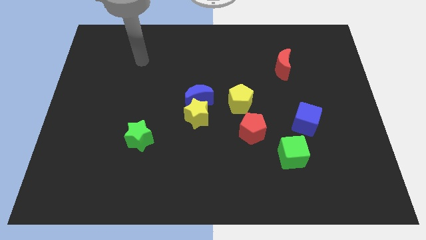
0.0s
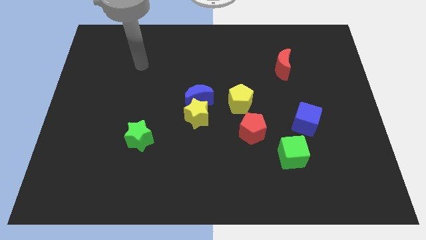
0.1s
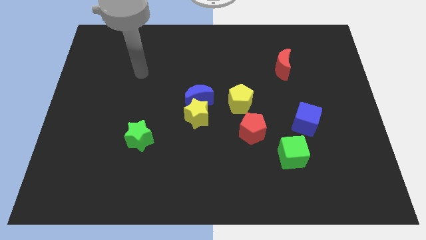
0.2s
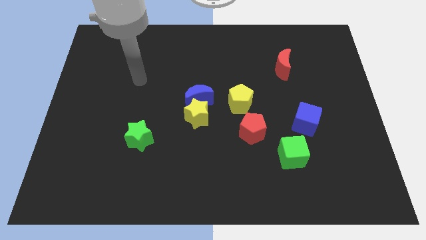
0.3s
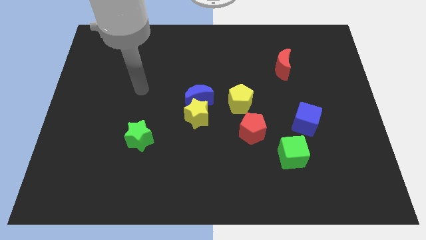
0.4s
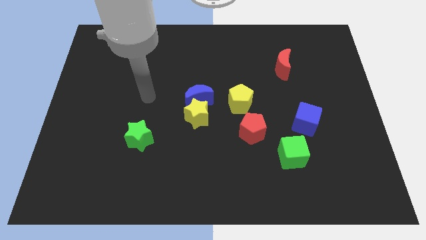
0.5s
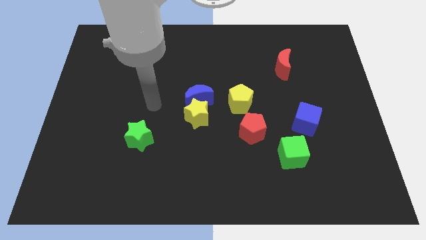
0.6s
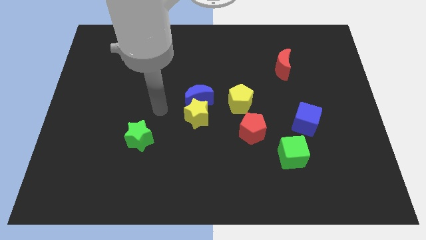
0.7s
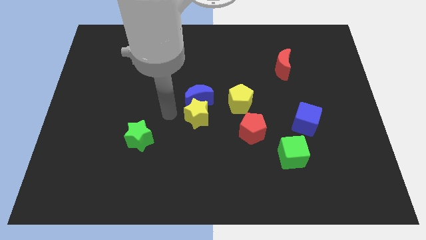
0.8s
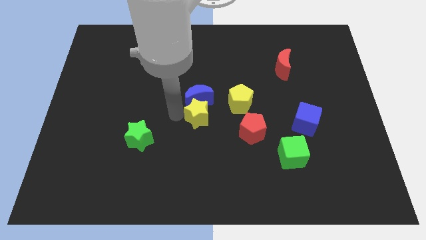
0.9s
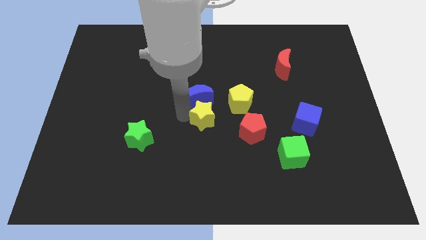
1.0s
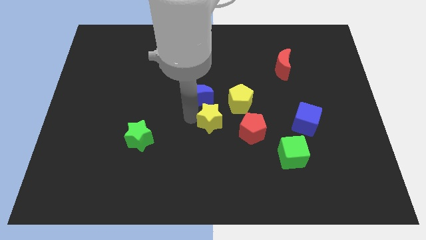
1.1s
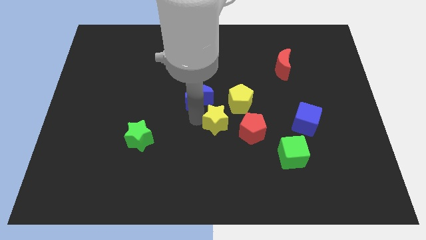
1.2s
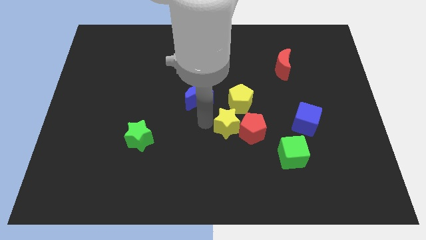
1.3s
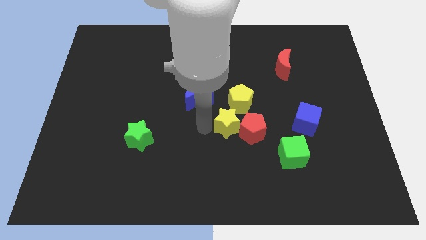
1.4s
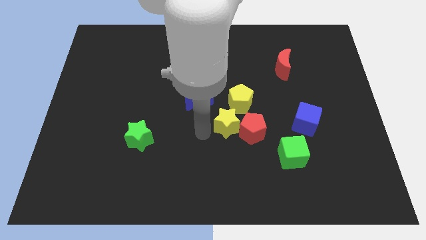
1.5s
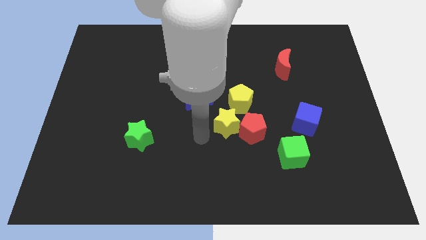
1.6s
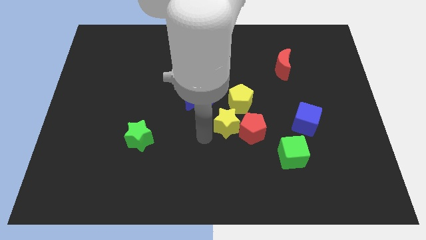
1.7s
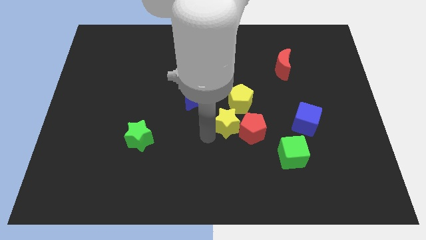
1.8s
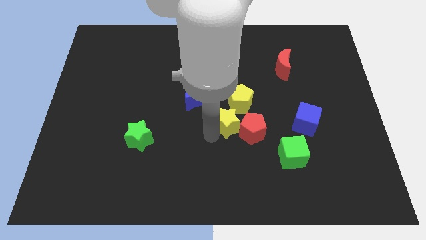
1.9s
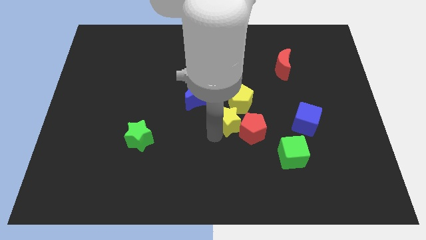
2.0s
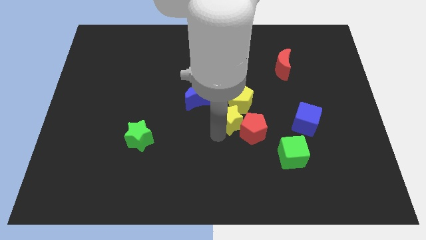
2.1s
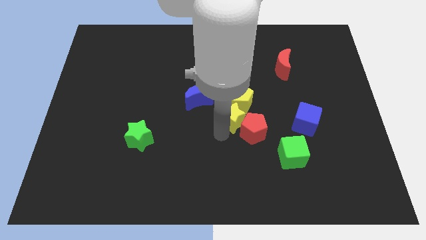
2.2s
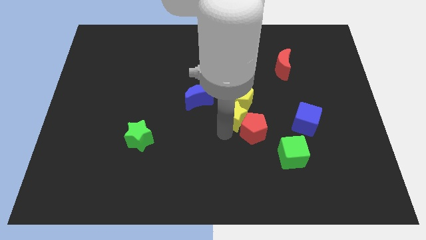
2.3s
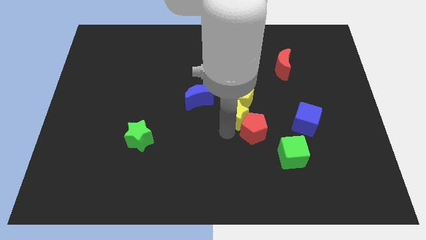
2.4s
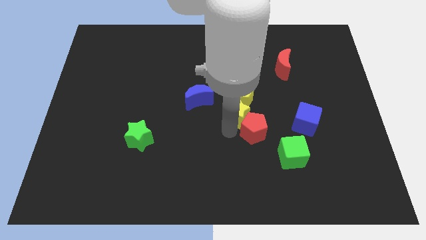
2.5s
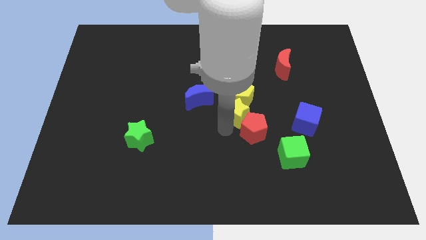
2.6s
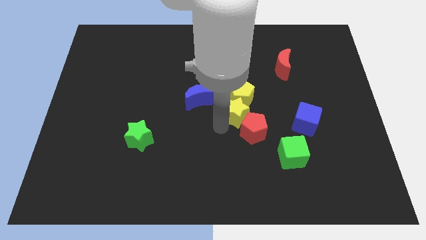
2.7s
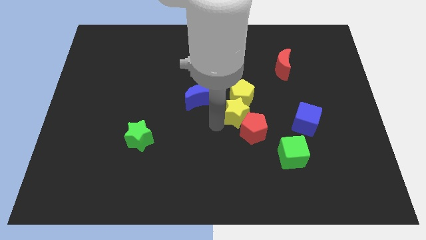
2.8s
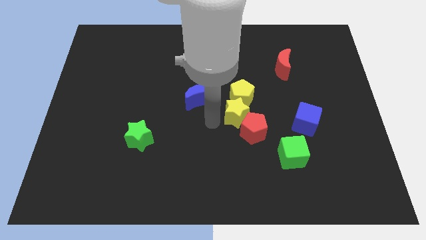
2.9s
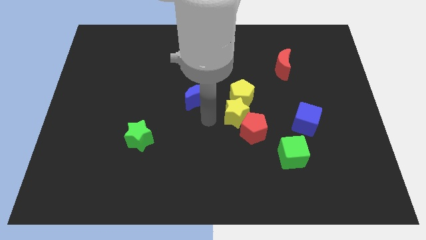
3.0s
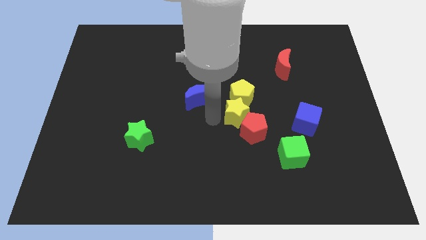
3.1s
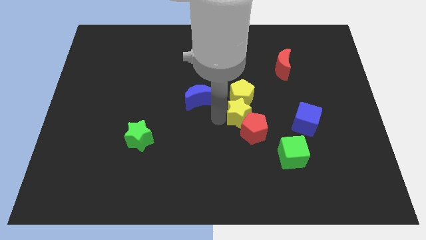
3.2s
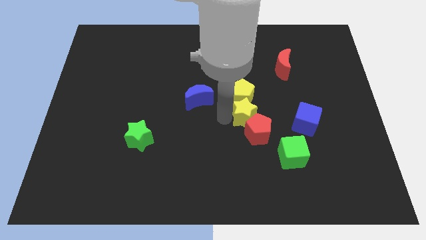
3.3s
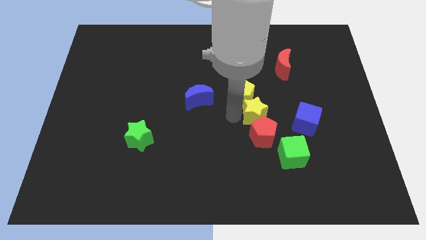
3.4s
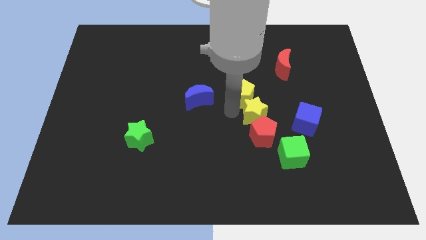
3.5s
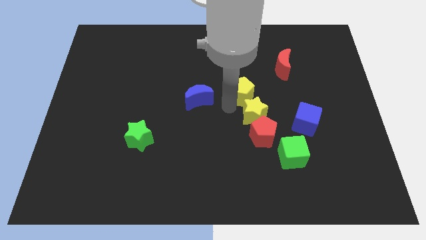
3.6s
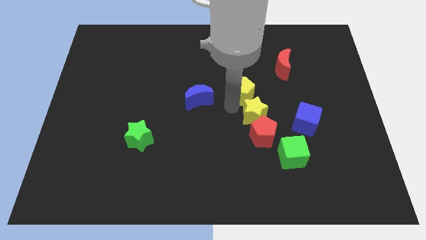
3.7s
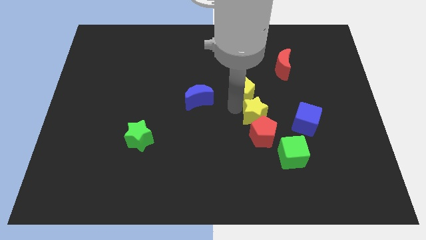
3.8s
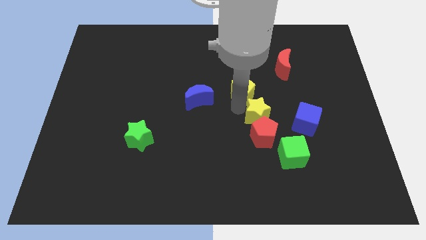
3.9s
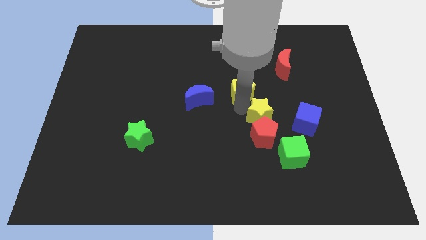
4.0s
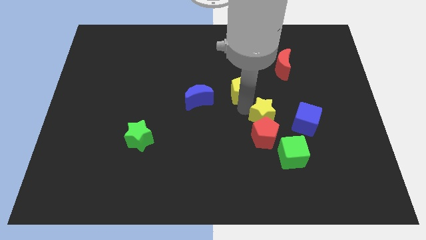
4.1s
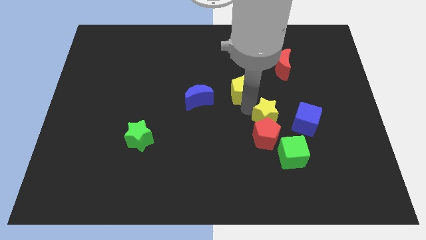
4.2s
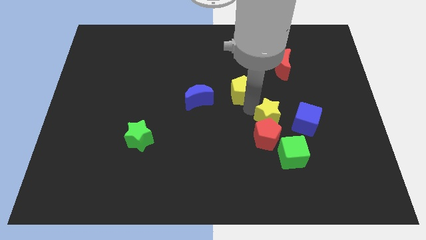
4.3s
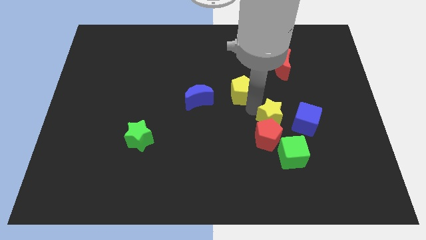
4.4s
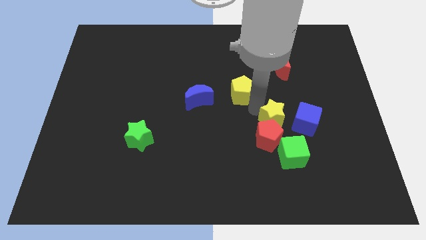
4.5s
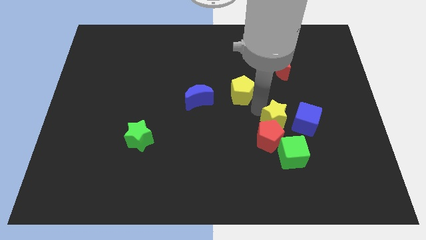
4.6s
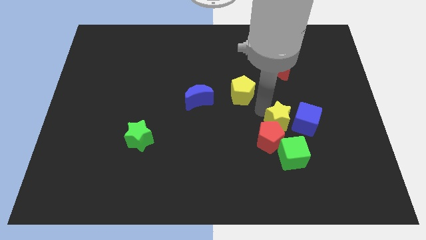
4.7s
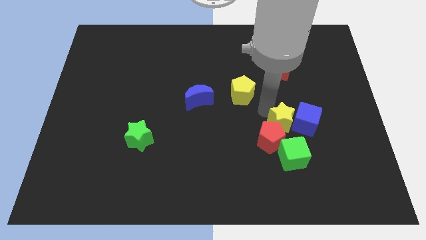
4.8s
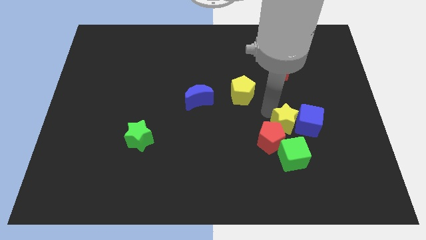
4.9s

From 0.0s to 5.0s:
move the yellow star right of the red pentagon

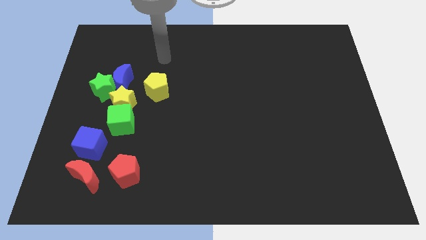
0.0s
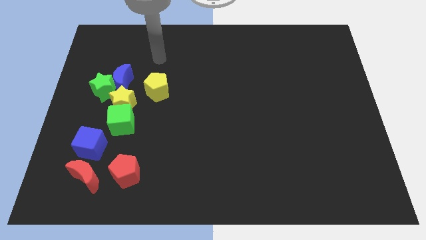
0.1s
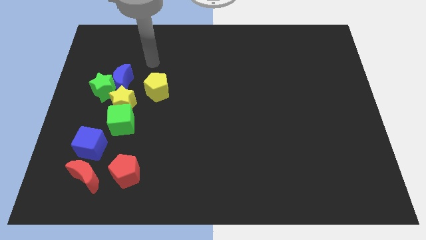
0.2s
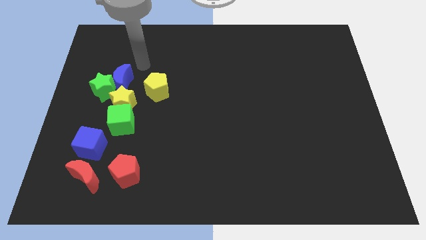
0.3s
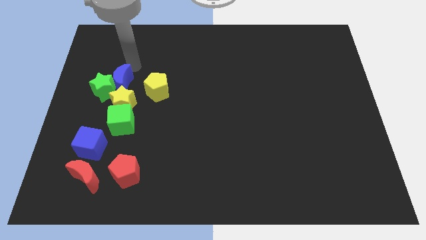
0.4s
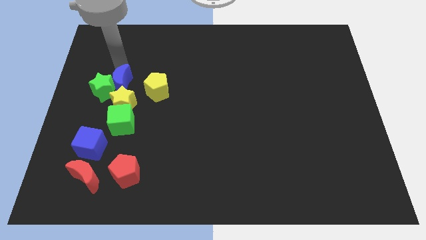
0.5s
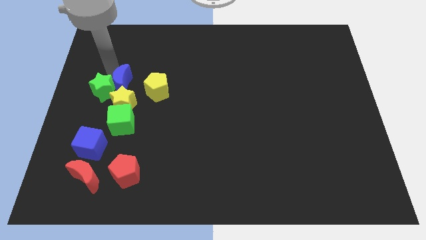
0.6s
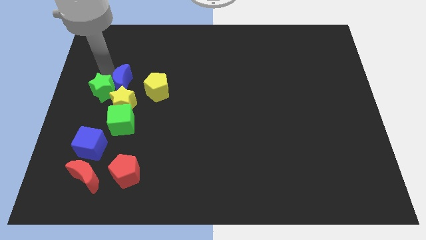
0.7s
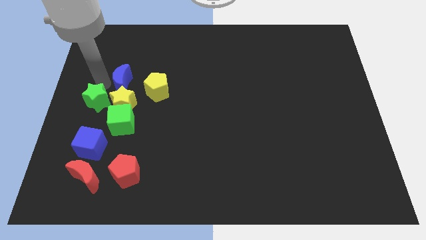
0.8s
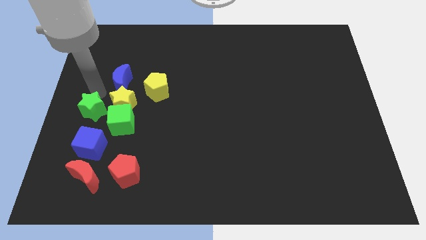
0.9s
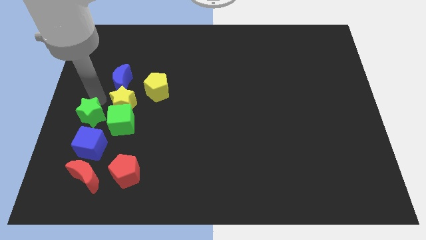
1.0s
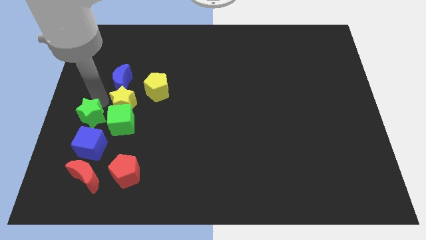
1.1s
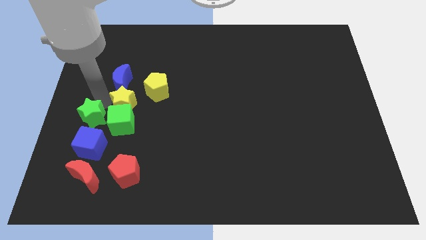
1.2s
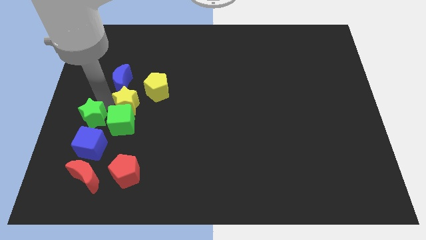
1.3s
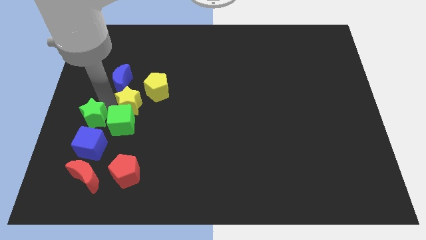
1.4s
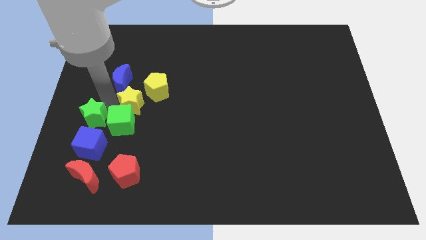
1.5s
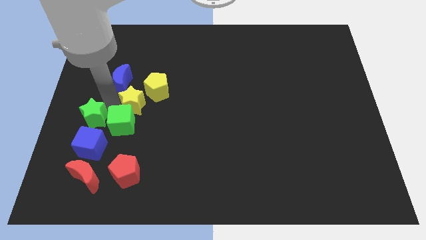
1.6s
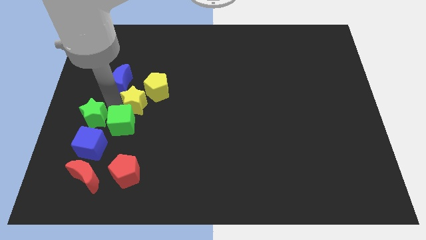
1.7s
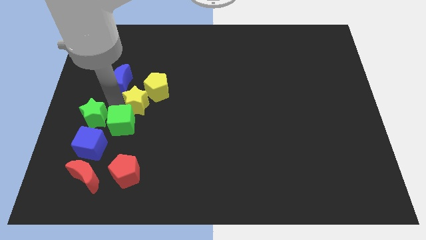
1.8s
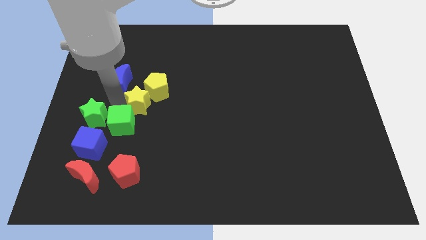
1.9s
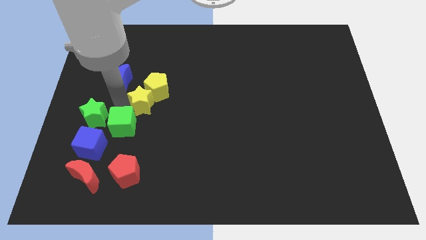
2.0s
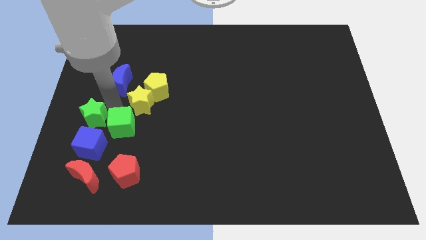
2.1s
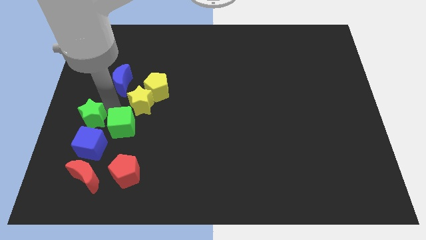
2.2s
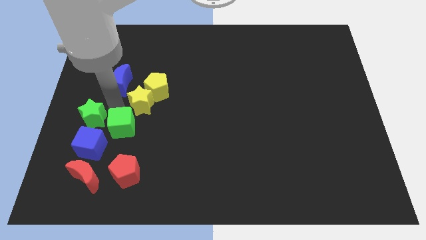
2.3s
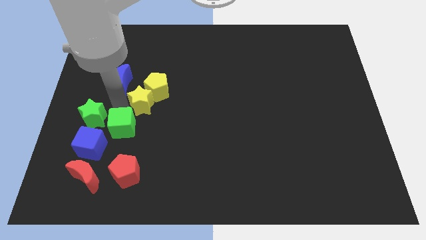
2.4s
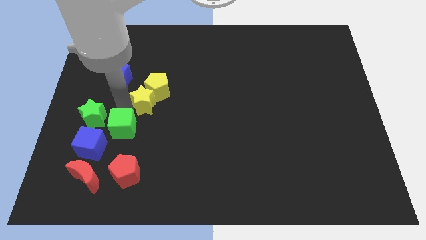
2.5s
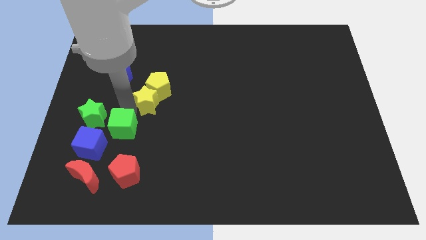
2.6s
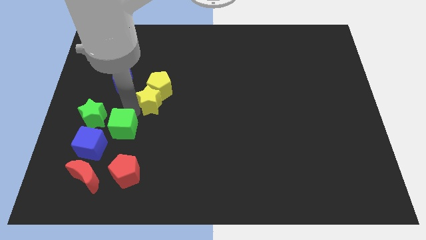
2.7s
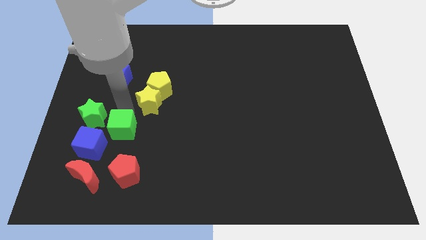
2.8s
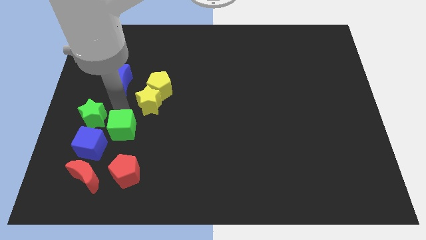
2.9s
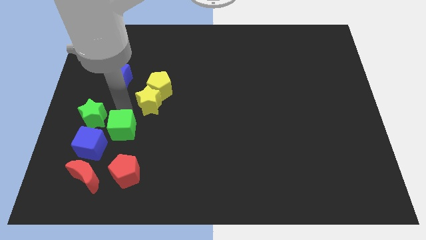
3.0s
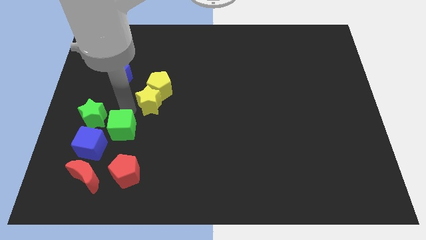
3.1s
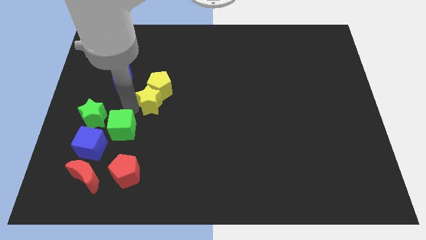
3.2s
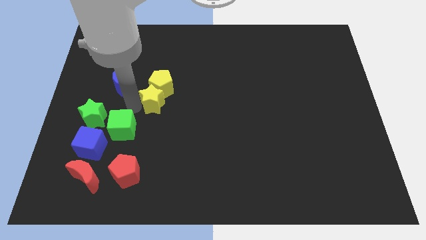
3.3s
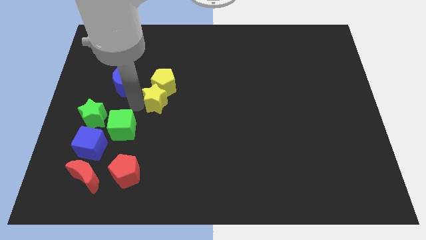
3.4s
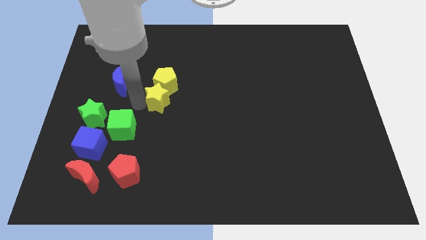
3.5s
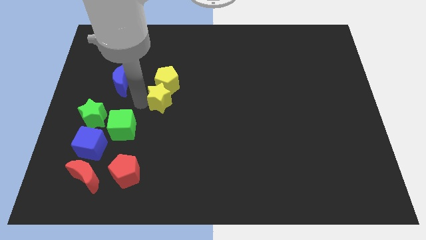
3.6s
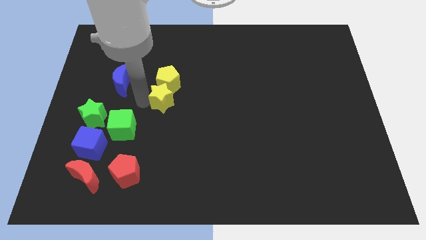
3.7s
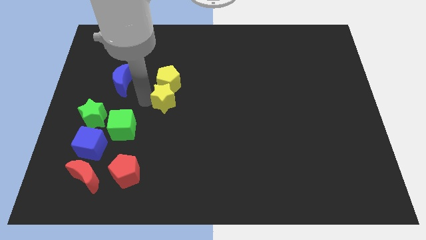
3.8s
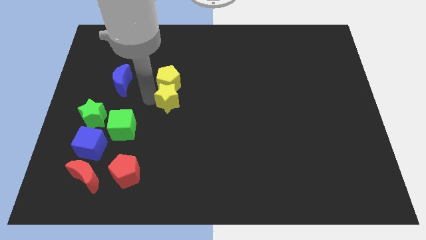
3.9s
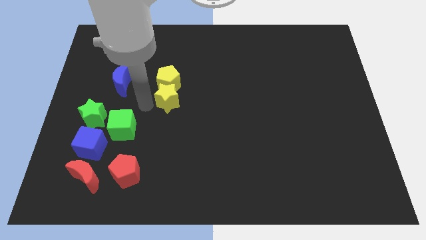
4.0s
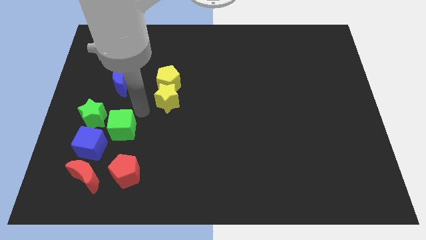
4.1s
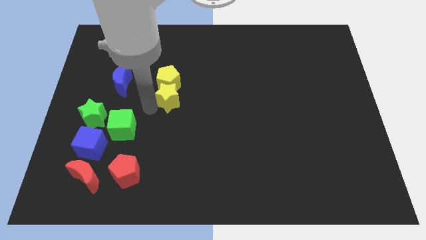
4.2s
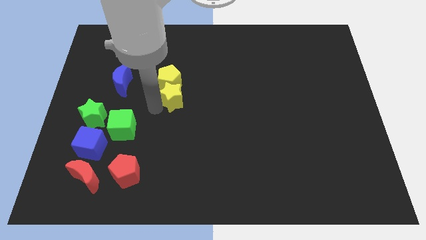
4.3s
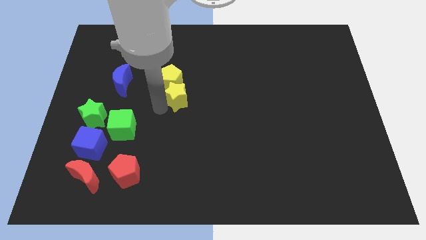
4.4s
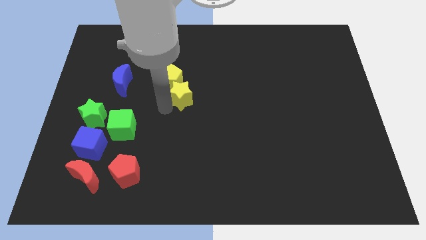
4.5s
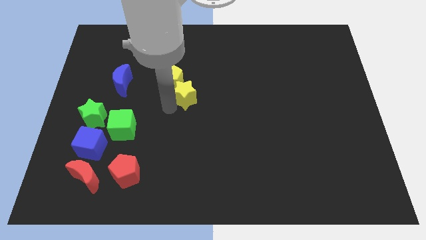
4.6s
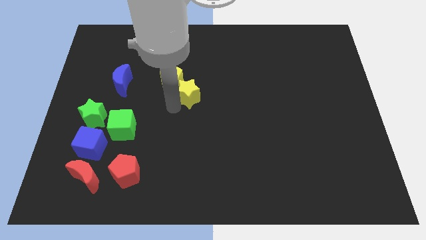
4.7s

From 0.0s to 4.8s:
slide the yellow star to the right of the yellow pentagon
